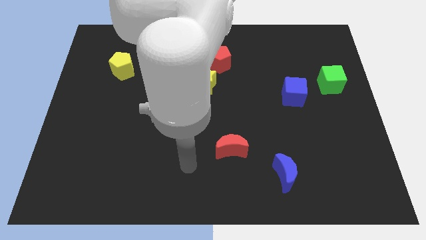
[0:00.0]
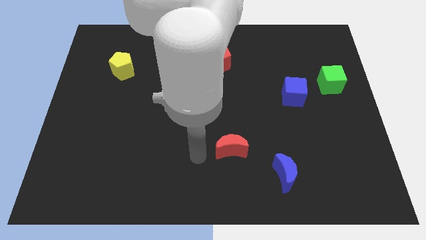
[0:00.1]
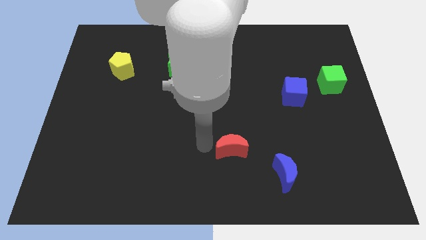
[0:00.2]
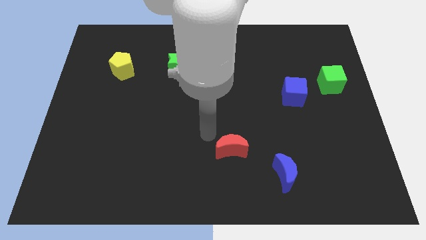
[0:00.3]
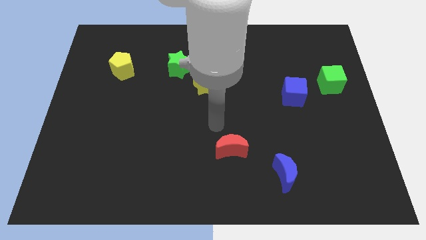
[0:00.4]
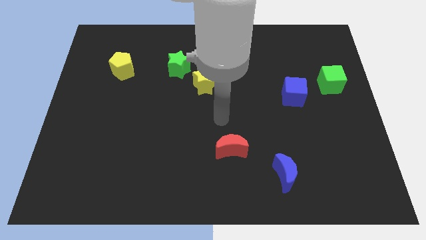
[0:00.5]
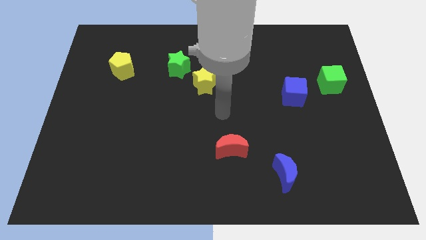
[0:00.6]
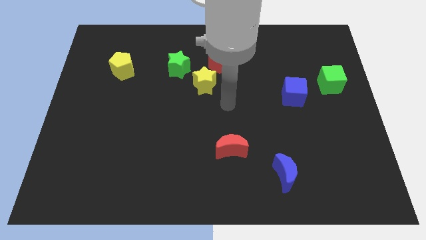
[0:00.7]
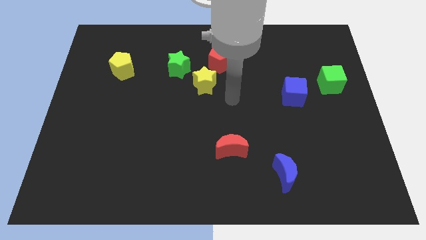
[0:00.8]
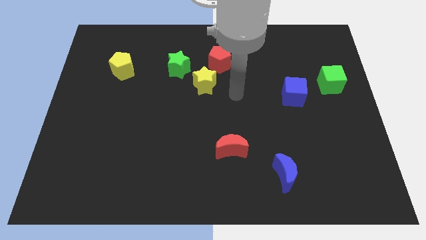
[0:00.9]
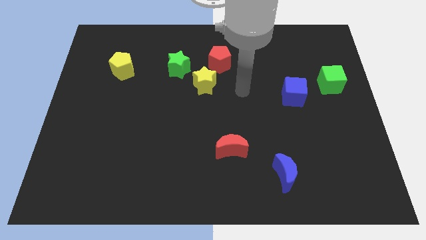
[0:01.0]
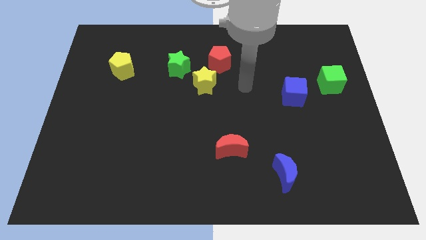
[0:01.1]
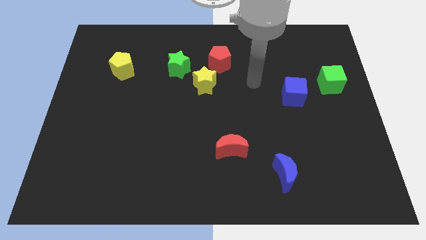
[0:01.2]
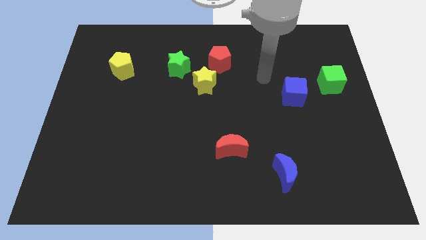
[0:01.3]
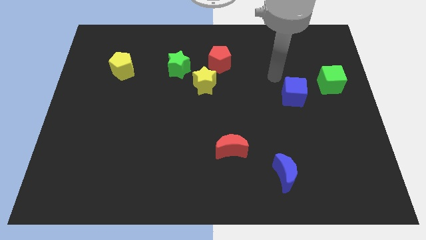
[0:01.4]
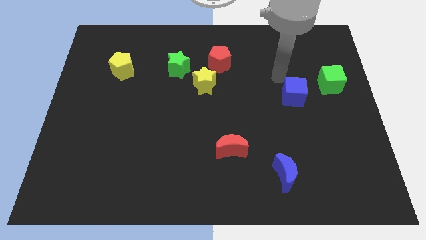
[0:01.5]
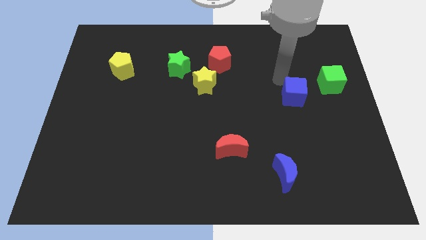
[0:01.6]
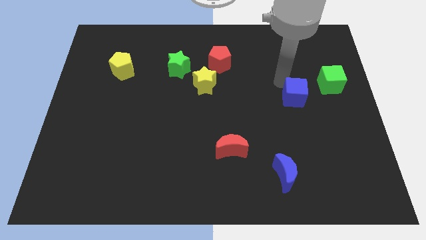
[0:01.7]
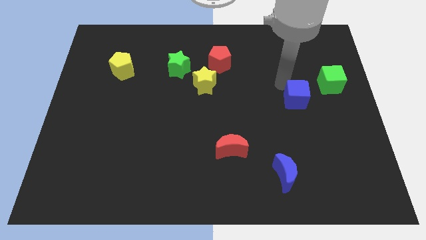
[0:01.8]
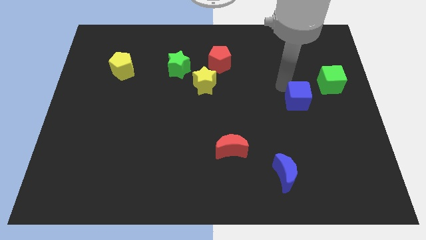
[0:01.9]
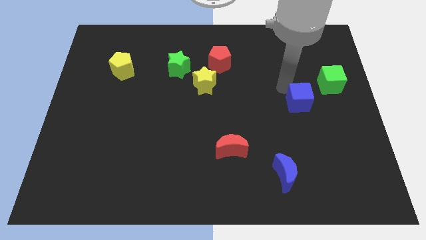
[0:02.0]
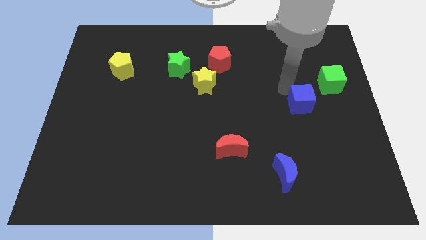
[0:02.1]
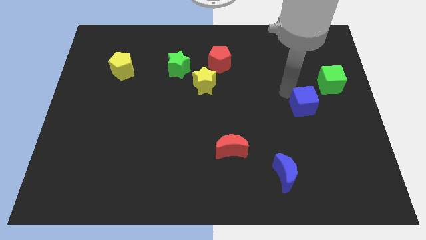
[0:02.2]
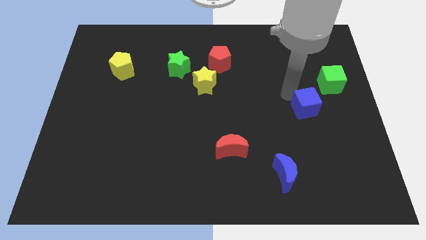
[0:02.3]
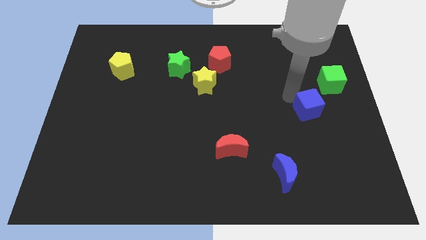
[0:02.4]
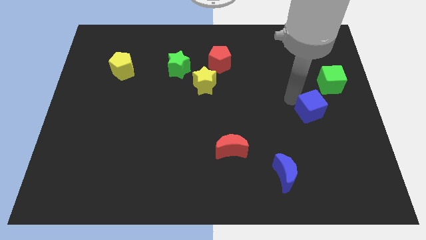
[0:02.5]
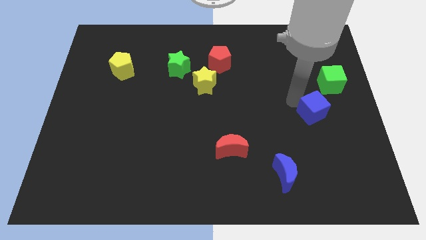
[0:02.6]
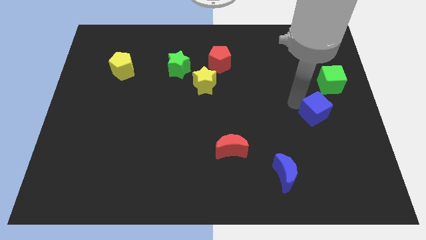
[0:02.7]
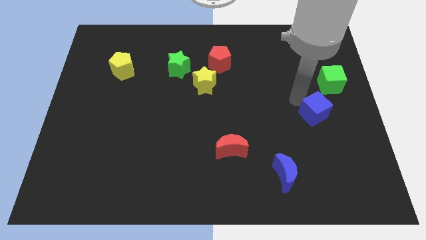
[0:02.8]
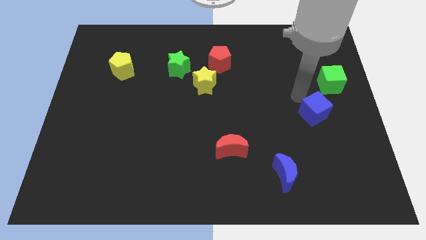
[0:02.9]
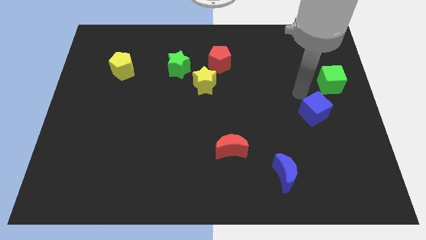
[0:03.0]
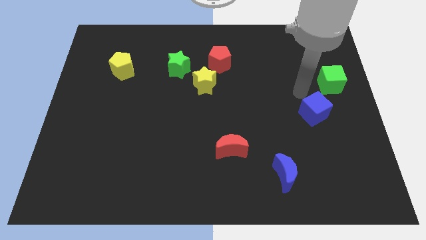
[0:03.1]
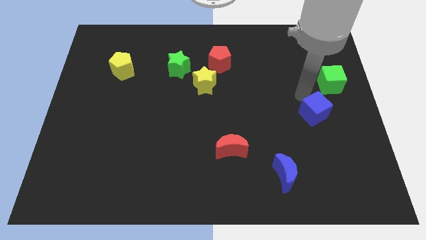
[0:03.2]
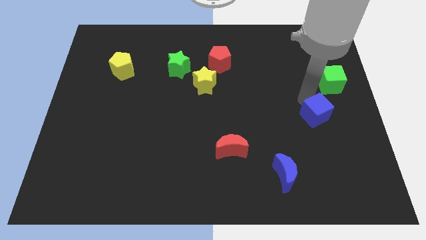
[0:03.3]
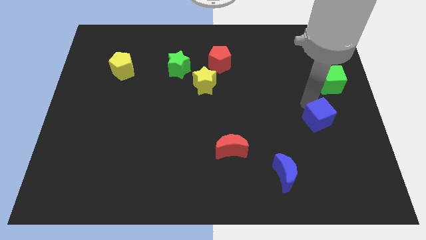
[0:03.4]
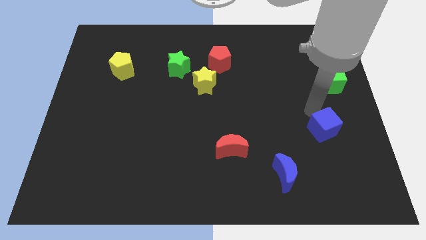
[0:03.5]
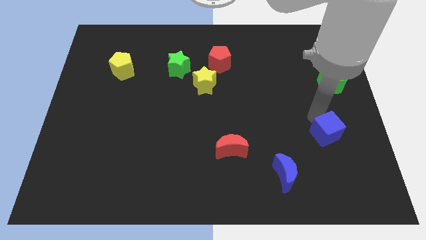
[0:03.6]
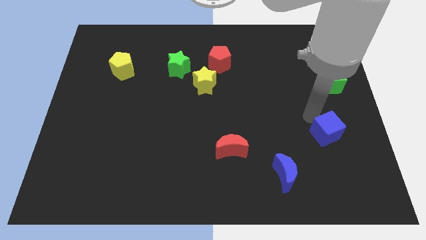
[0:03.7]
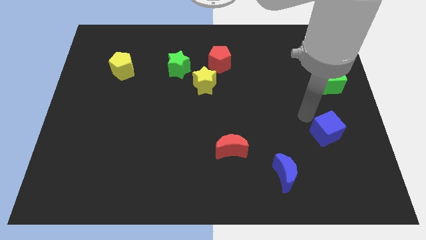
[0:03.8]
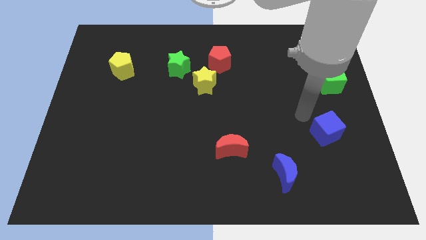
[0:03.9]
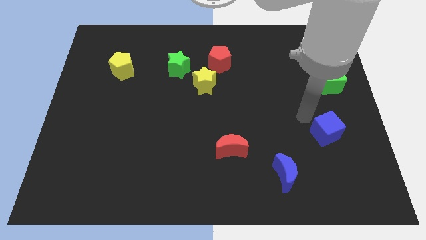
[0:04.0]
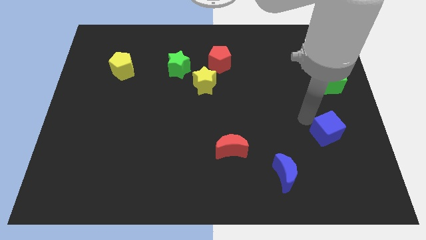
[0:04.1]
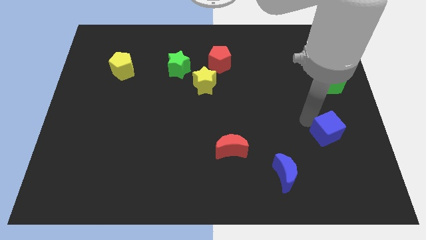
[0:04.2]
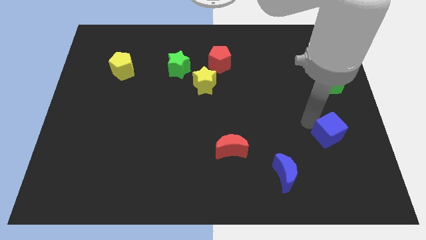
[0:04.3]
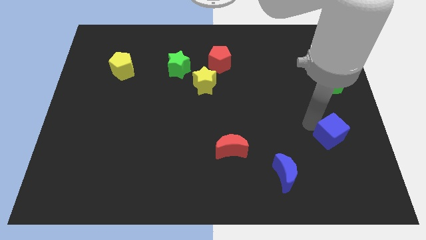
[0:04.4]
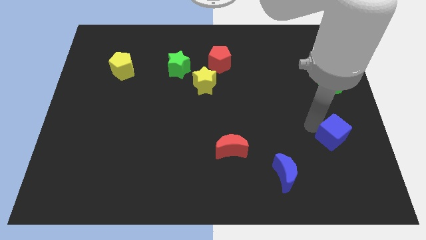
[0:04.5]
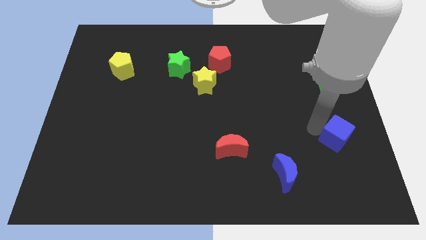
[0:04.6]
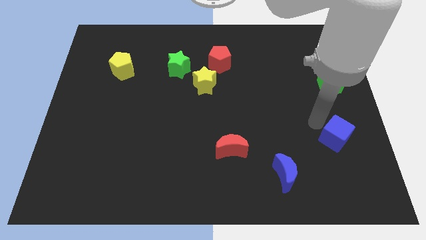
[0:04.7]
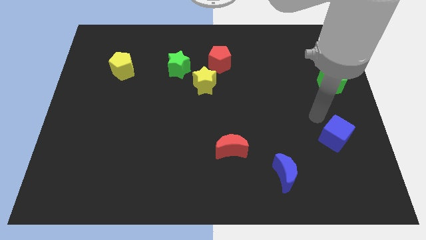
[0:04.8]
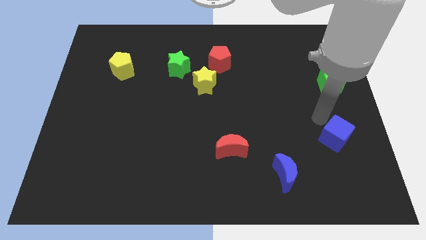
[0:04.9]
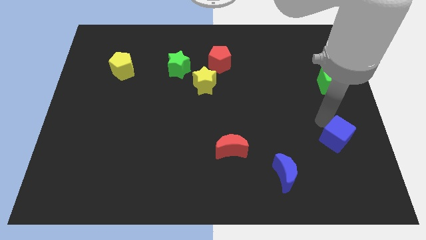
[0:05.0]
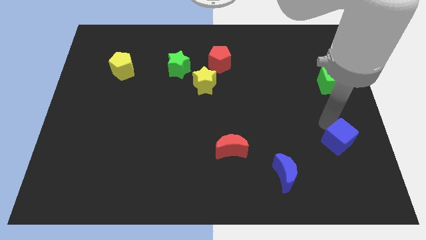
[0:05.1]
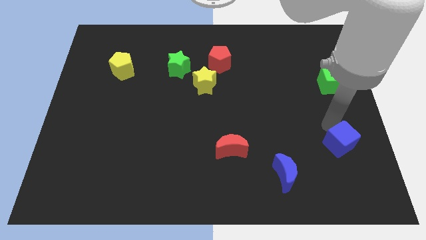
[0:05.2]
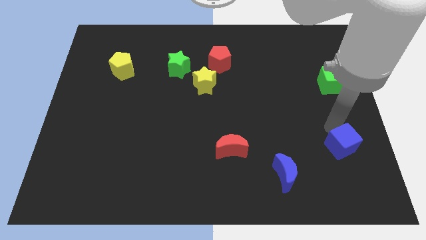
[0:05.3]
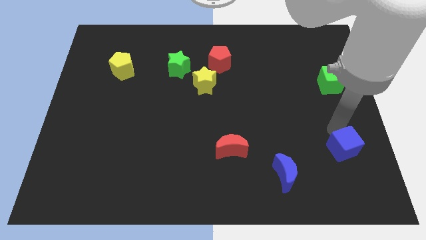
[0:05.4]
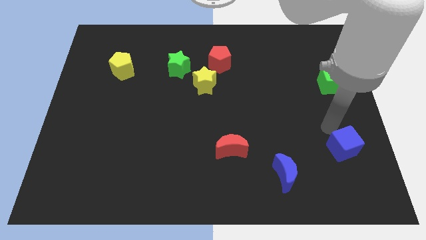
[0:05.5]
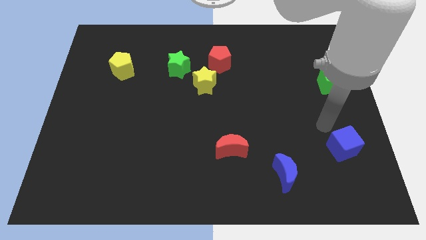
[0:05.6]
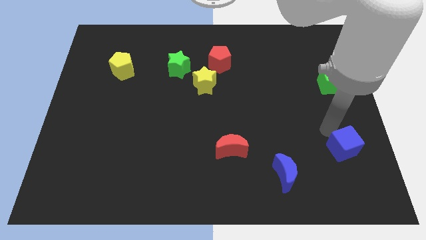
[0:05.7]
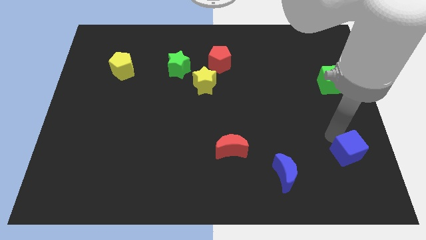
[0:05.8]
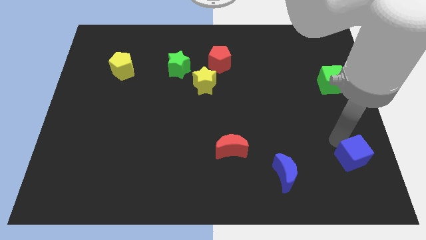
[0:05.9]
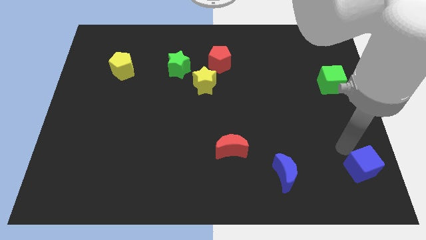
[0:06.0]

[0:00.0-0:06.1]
push the blue cube to the bottom right of the board
